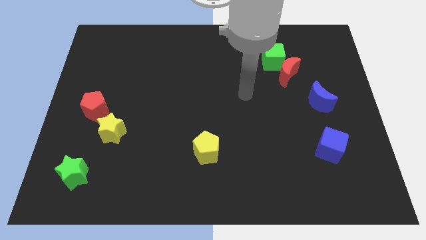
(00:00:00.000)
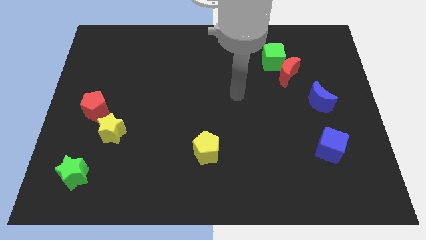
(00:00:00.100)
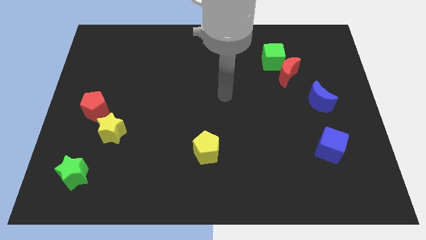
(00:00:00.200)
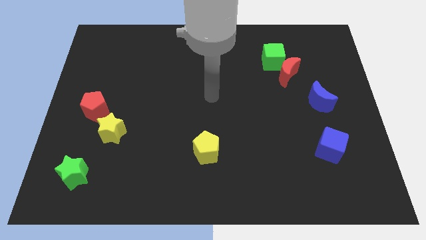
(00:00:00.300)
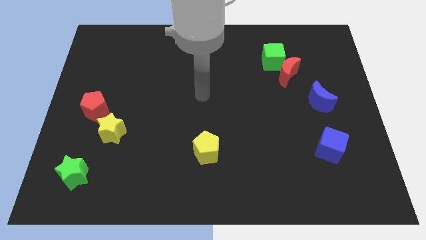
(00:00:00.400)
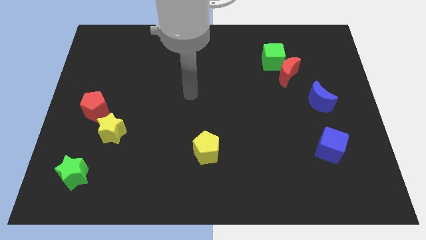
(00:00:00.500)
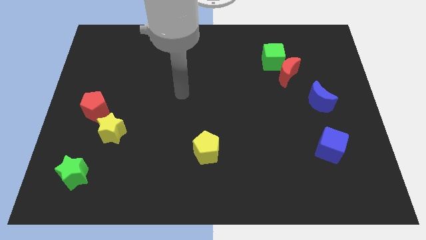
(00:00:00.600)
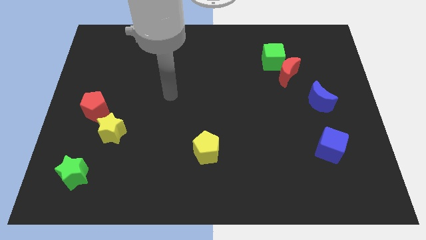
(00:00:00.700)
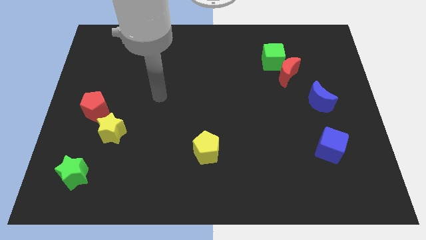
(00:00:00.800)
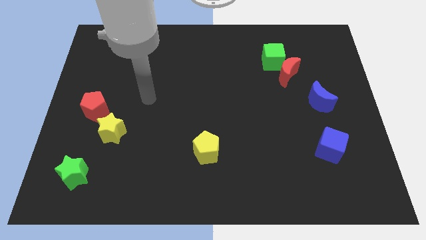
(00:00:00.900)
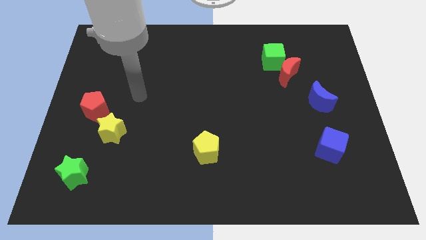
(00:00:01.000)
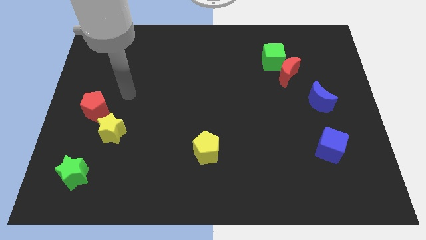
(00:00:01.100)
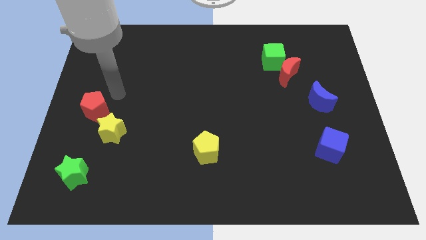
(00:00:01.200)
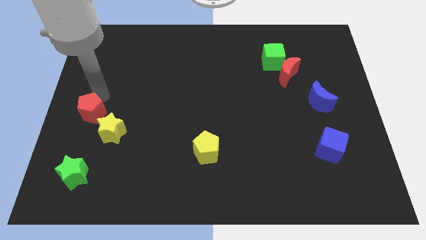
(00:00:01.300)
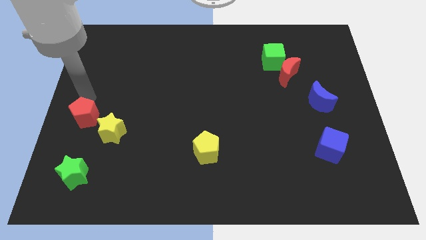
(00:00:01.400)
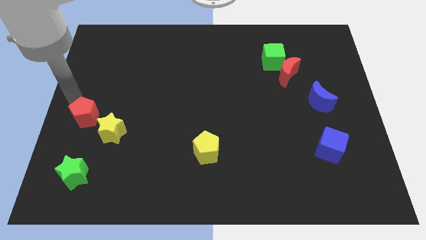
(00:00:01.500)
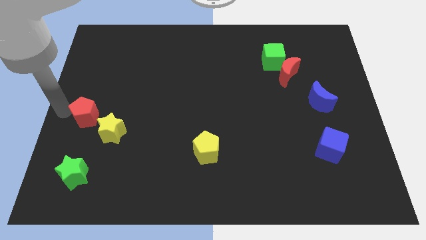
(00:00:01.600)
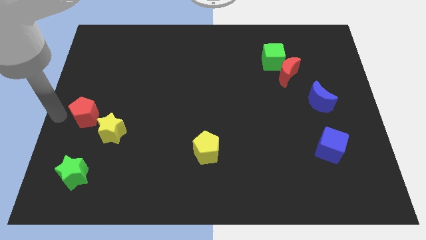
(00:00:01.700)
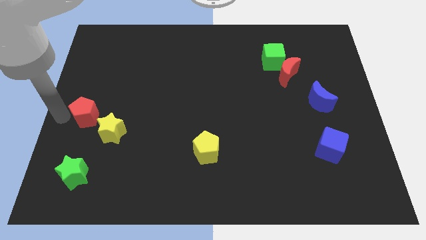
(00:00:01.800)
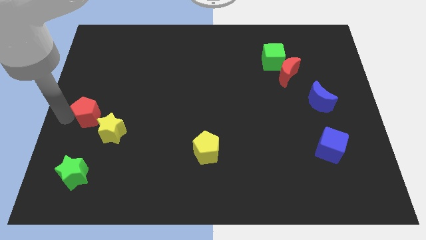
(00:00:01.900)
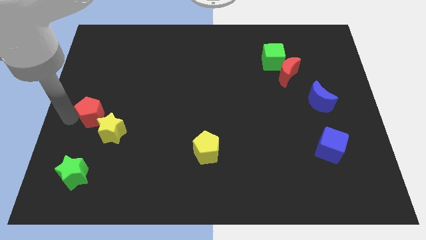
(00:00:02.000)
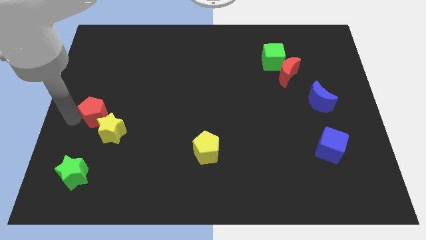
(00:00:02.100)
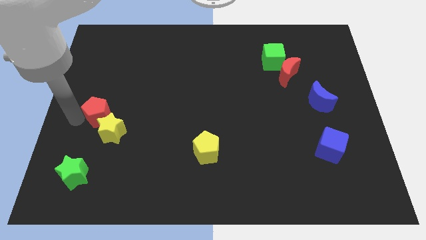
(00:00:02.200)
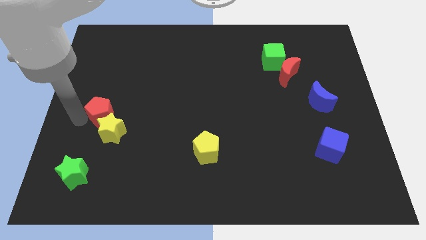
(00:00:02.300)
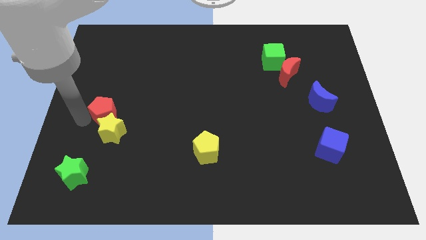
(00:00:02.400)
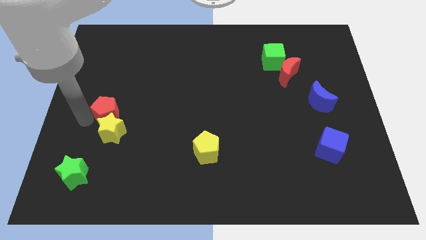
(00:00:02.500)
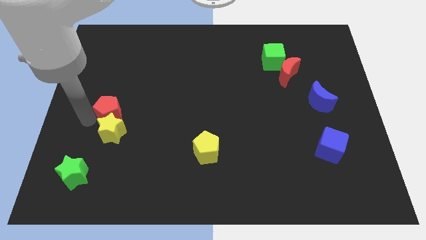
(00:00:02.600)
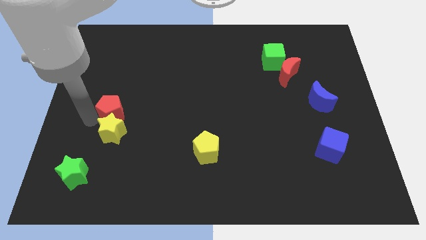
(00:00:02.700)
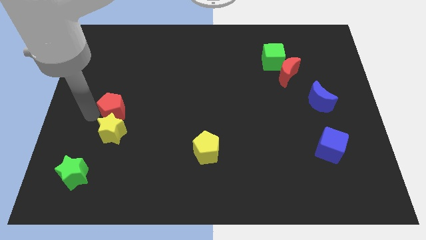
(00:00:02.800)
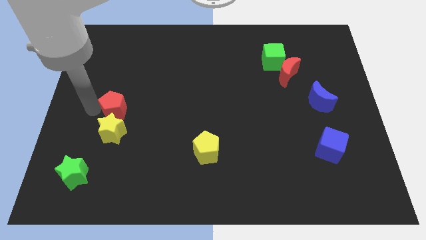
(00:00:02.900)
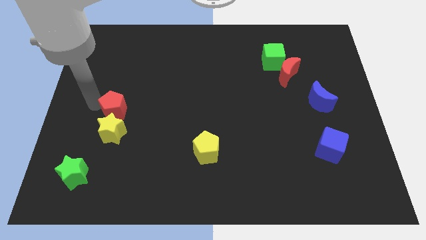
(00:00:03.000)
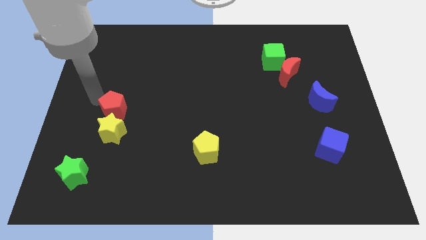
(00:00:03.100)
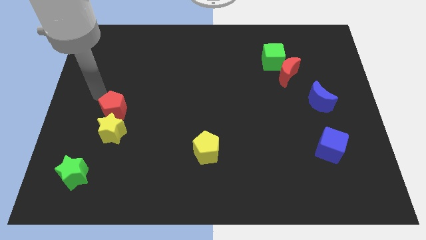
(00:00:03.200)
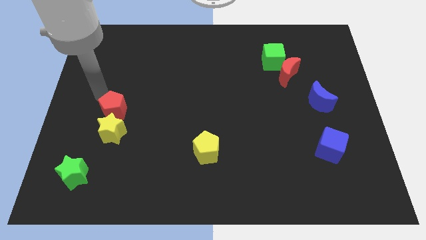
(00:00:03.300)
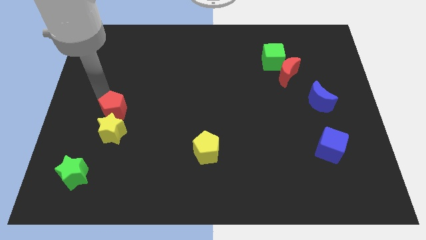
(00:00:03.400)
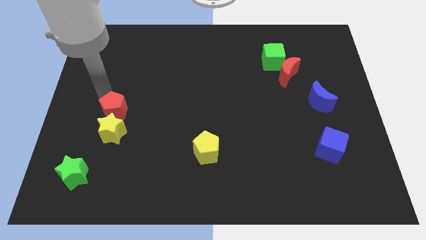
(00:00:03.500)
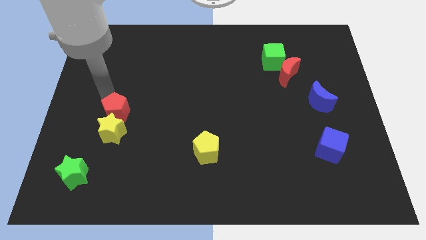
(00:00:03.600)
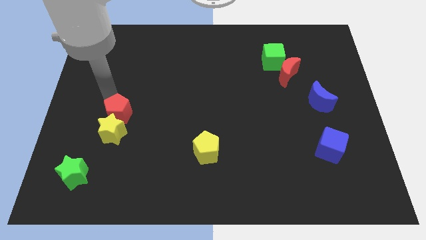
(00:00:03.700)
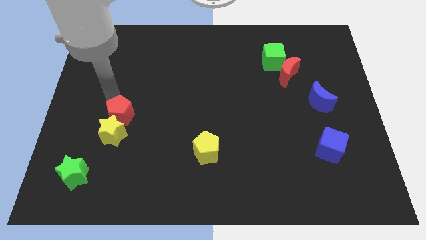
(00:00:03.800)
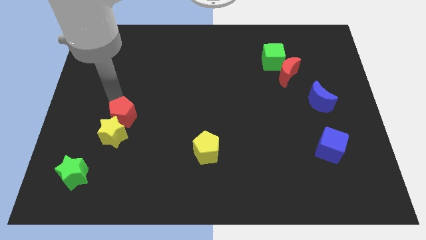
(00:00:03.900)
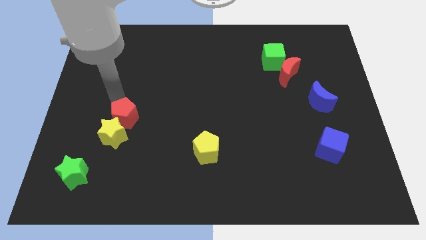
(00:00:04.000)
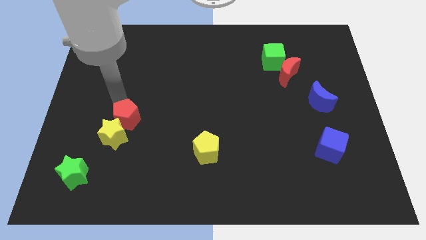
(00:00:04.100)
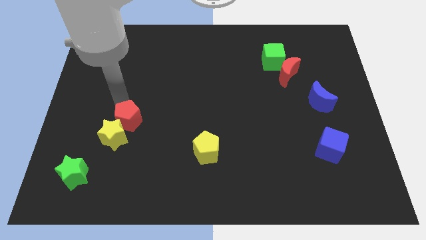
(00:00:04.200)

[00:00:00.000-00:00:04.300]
slightly slide the red pentagon down and right diagonally

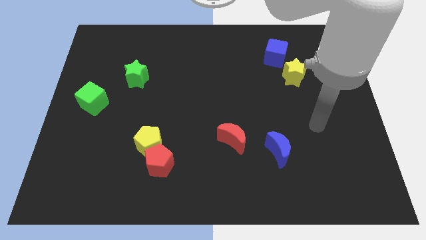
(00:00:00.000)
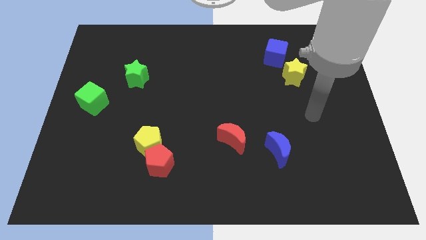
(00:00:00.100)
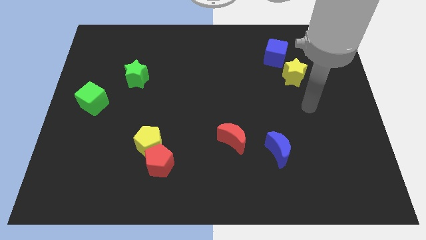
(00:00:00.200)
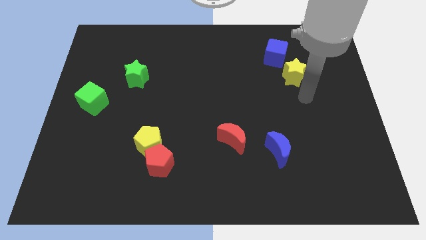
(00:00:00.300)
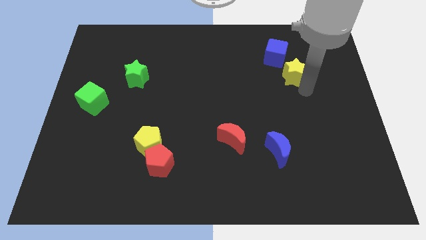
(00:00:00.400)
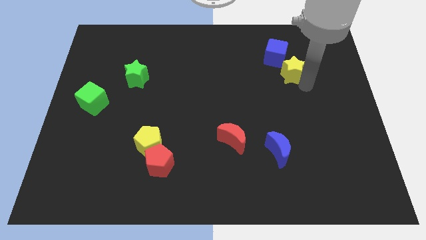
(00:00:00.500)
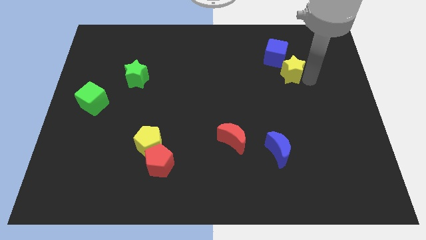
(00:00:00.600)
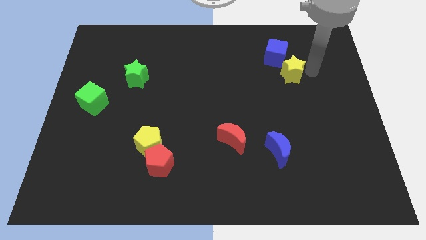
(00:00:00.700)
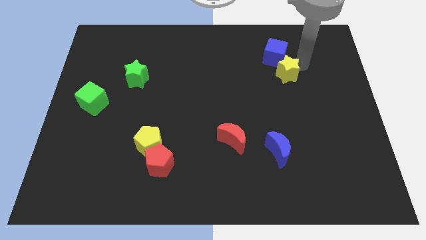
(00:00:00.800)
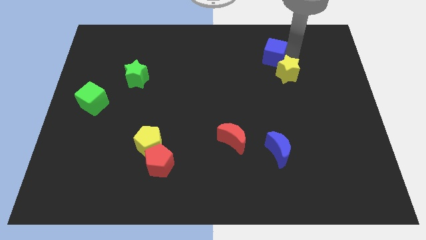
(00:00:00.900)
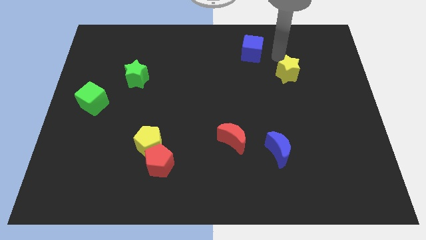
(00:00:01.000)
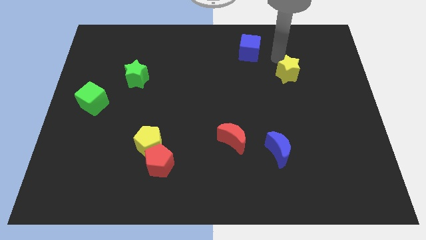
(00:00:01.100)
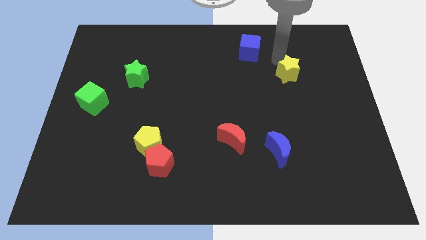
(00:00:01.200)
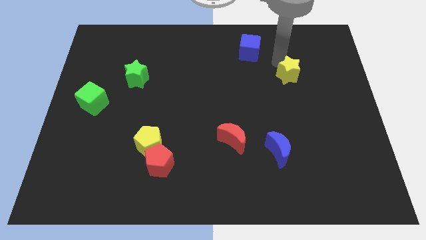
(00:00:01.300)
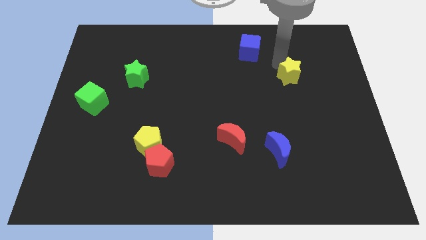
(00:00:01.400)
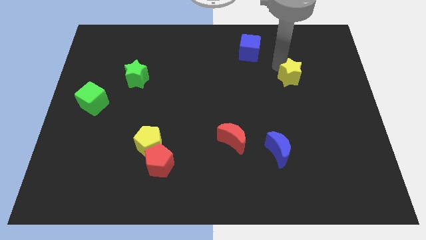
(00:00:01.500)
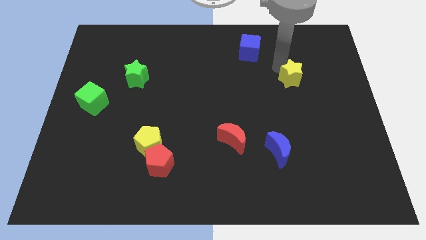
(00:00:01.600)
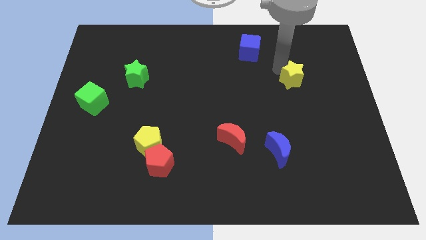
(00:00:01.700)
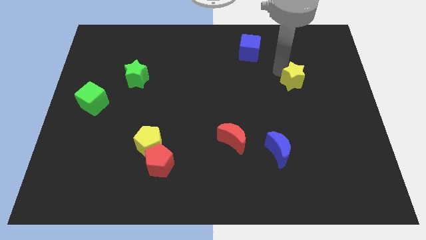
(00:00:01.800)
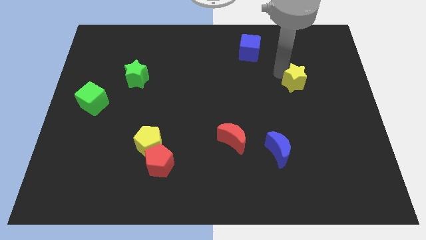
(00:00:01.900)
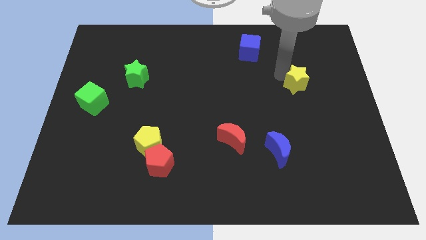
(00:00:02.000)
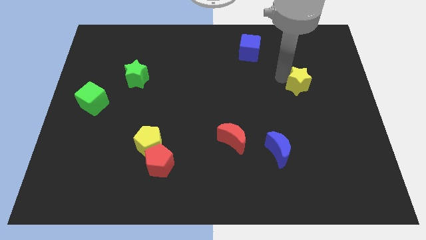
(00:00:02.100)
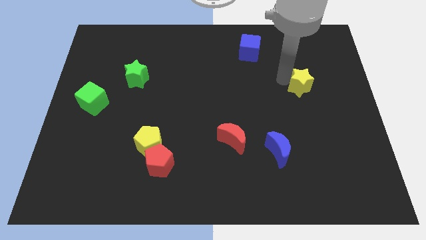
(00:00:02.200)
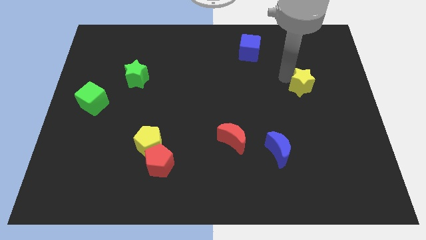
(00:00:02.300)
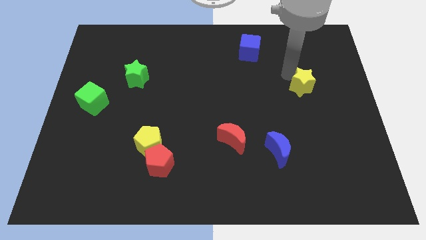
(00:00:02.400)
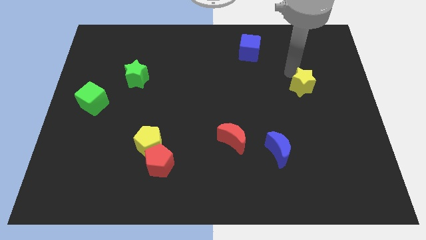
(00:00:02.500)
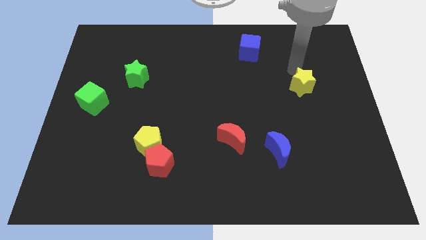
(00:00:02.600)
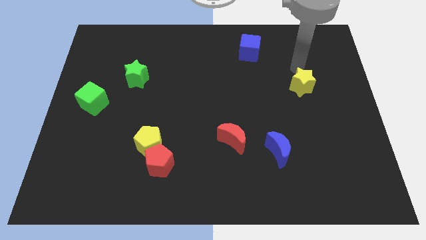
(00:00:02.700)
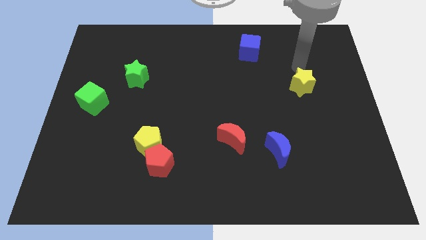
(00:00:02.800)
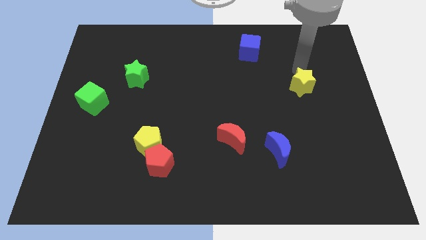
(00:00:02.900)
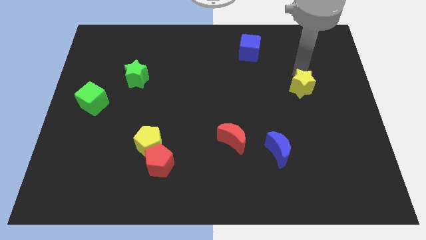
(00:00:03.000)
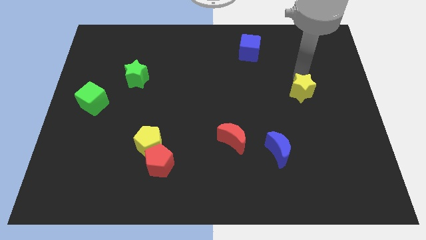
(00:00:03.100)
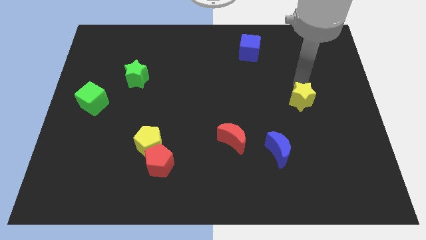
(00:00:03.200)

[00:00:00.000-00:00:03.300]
slide the yellow star down a little

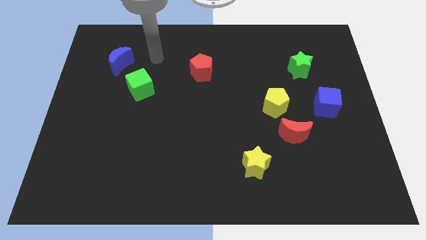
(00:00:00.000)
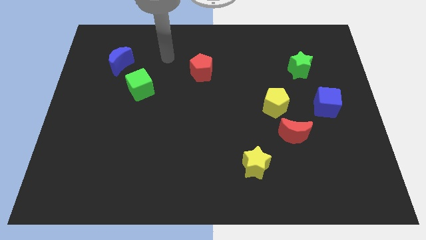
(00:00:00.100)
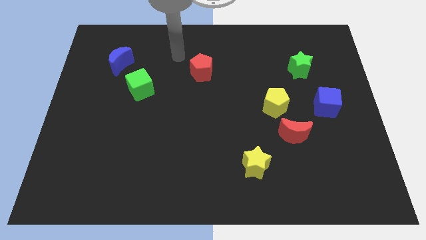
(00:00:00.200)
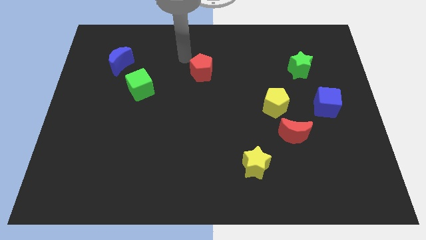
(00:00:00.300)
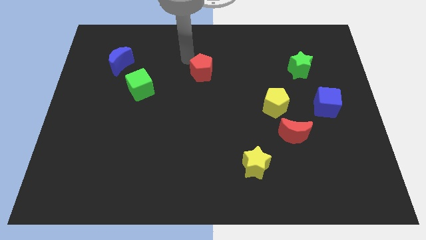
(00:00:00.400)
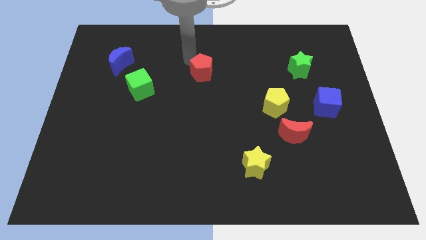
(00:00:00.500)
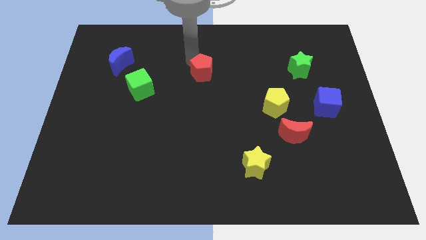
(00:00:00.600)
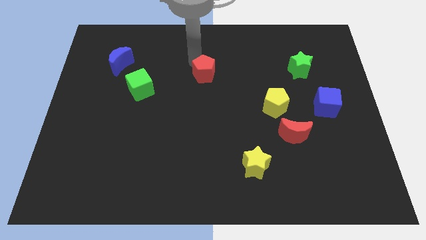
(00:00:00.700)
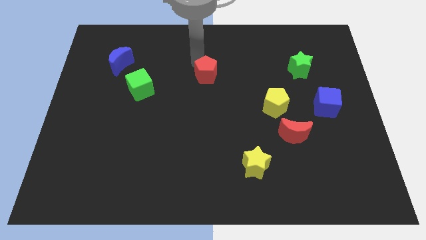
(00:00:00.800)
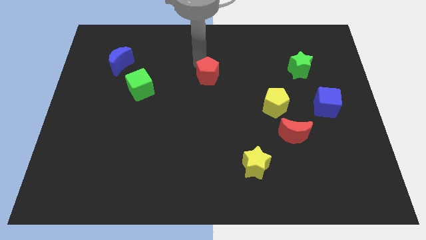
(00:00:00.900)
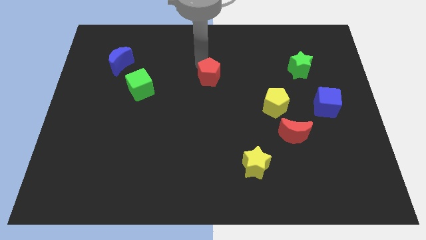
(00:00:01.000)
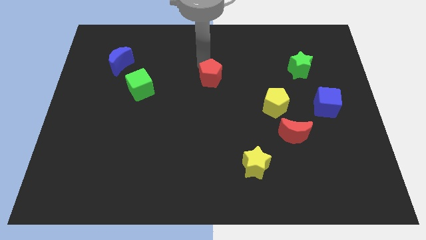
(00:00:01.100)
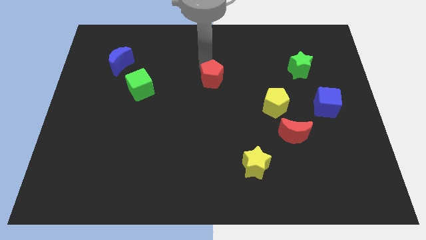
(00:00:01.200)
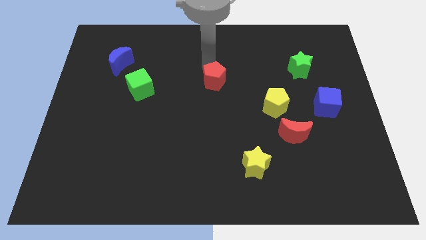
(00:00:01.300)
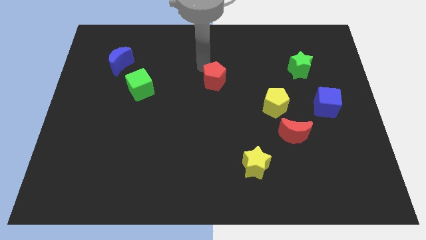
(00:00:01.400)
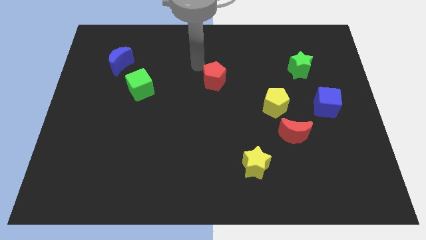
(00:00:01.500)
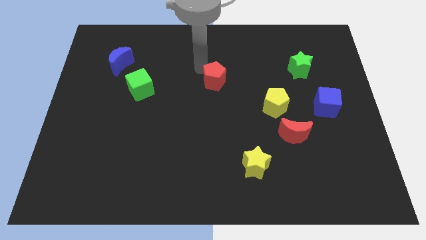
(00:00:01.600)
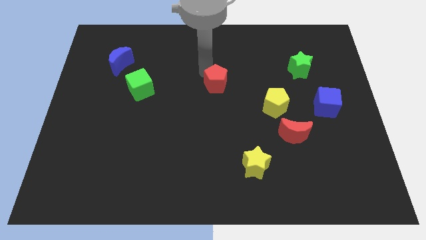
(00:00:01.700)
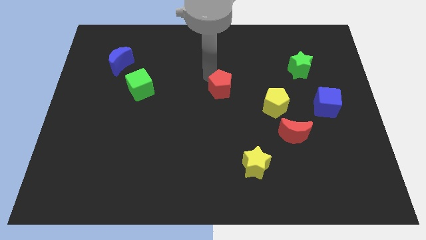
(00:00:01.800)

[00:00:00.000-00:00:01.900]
push the red pentagon down and then to the right a little
